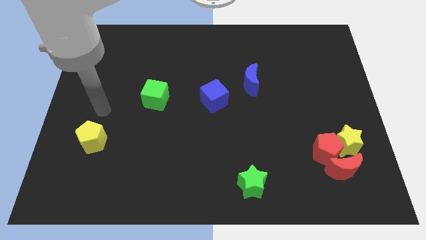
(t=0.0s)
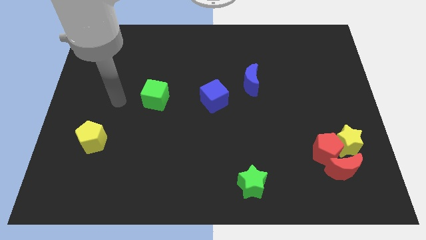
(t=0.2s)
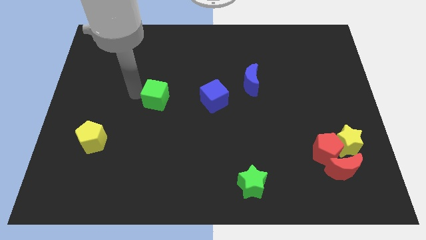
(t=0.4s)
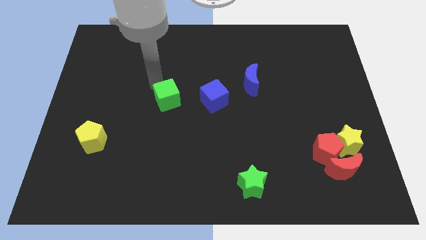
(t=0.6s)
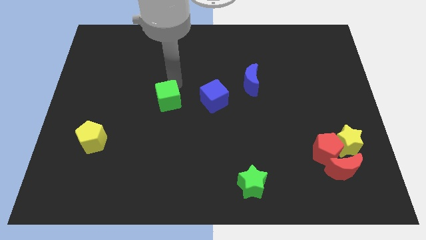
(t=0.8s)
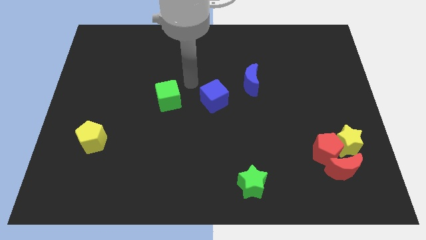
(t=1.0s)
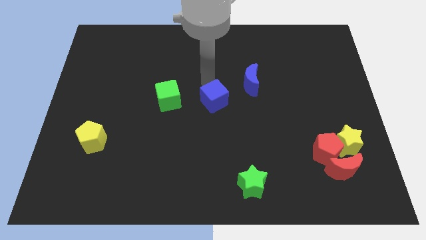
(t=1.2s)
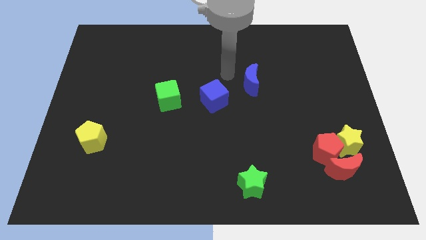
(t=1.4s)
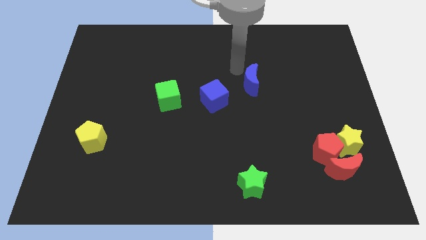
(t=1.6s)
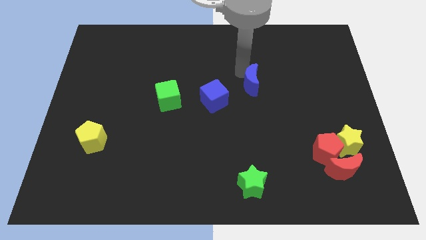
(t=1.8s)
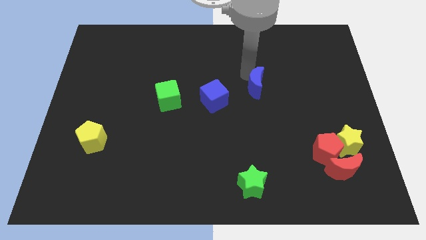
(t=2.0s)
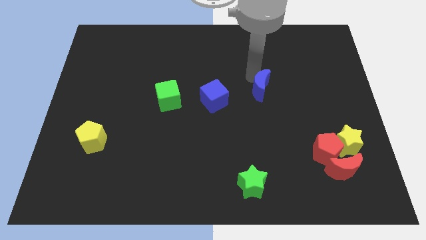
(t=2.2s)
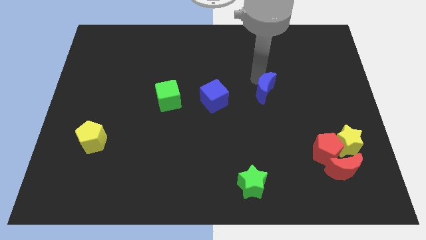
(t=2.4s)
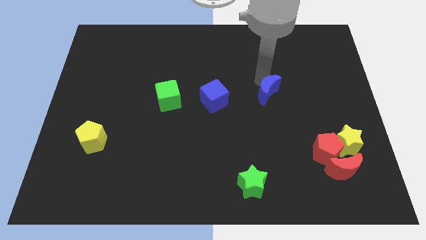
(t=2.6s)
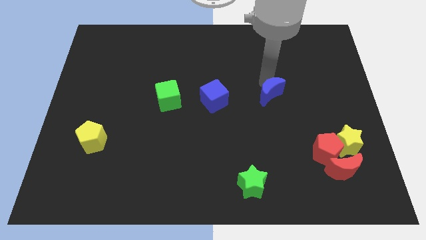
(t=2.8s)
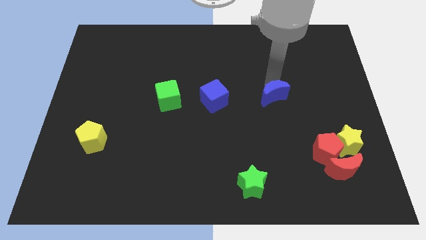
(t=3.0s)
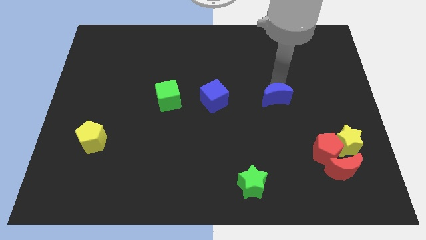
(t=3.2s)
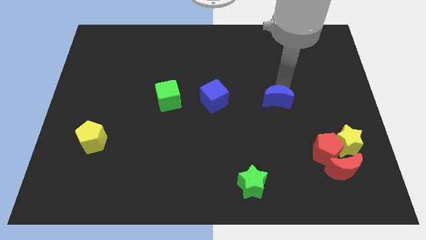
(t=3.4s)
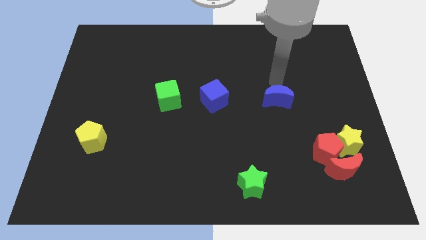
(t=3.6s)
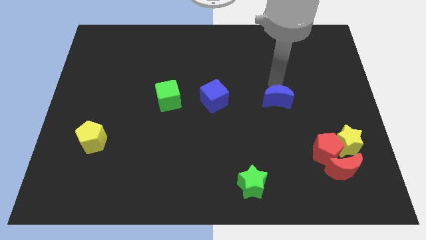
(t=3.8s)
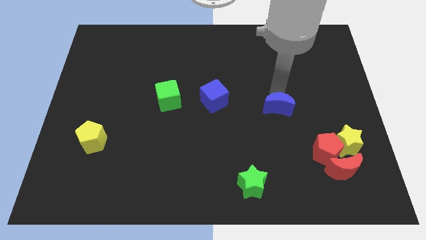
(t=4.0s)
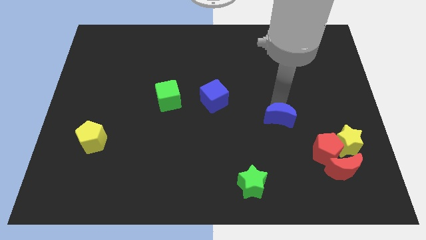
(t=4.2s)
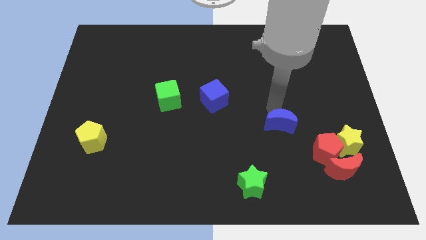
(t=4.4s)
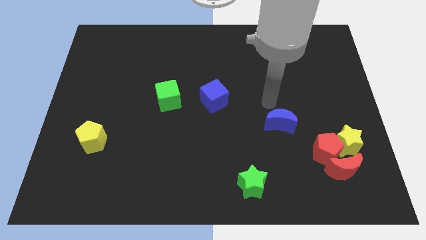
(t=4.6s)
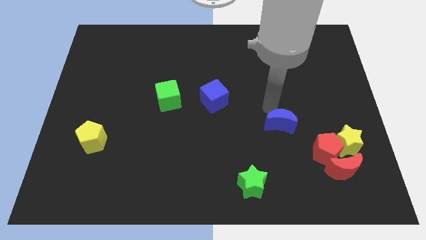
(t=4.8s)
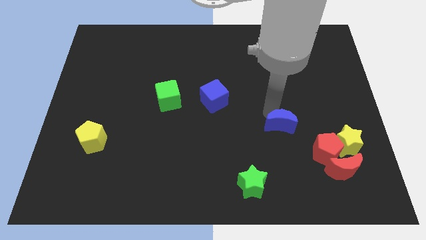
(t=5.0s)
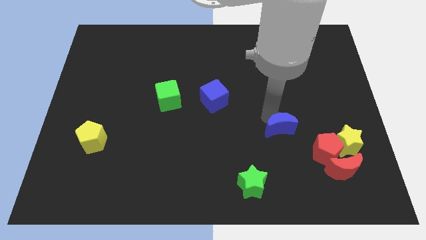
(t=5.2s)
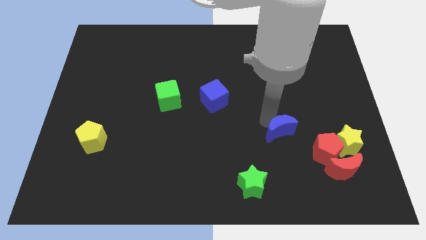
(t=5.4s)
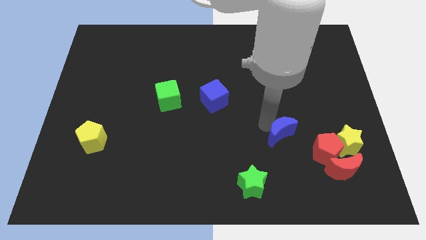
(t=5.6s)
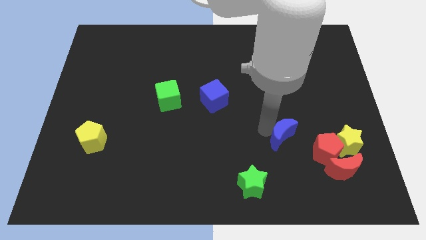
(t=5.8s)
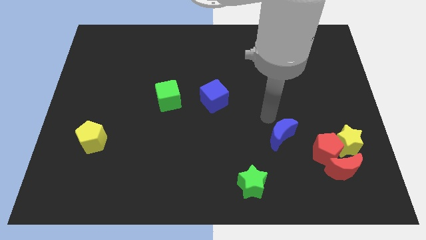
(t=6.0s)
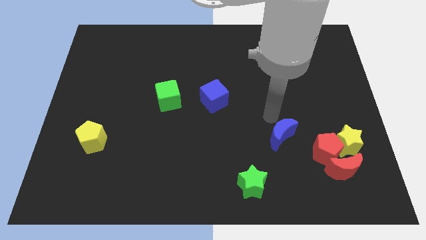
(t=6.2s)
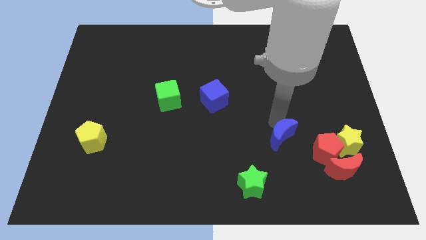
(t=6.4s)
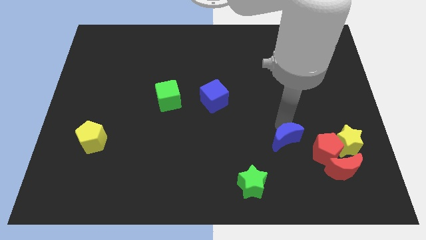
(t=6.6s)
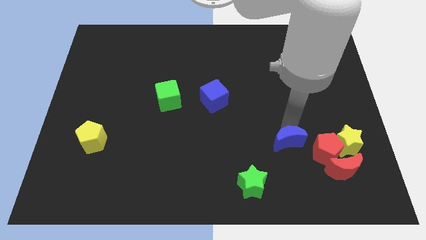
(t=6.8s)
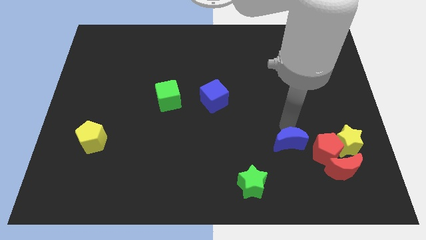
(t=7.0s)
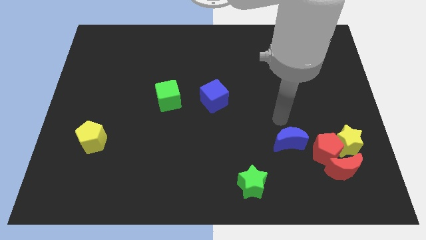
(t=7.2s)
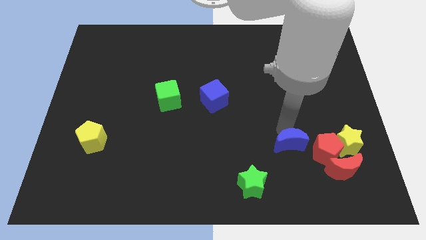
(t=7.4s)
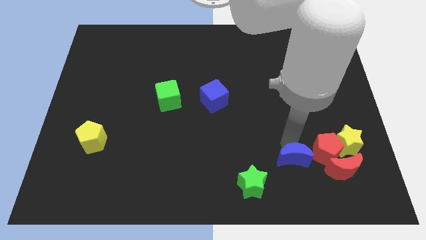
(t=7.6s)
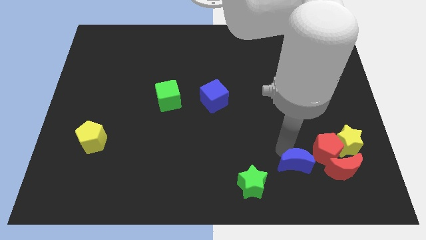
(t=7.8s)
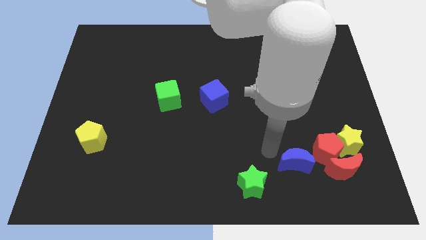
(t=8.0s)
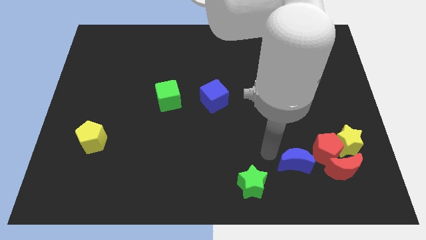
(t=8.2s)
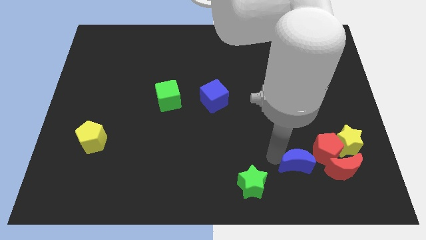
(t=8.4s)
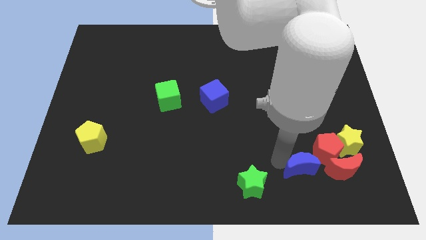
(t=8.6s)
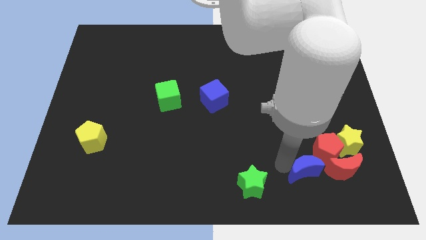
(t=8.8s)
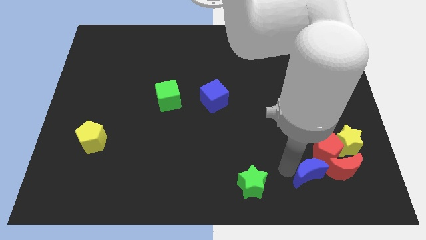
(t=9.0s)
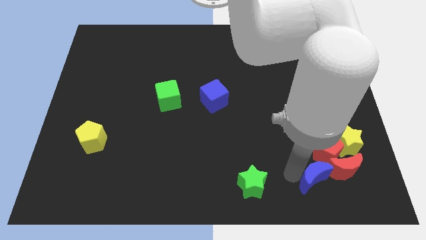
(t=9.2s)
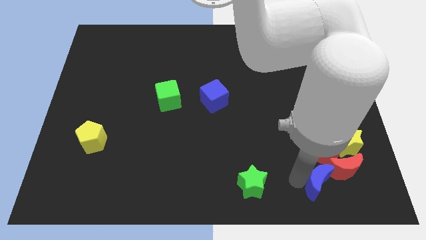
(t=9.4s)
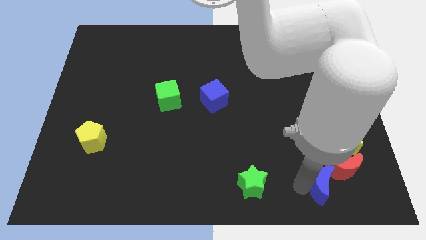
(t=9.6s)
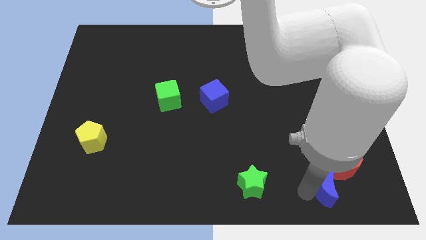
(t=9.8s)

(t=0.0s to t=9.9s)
slide the blue moon close to the red moon

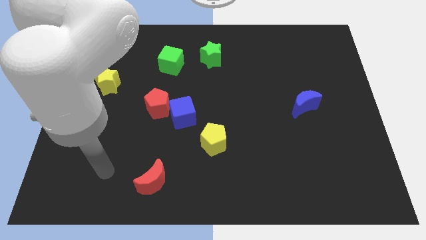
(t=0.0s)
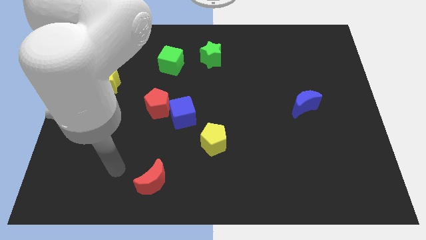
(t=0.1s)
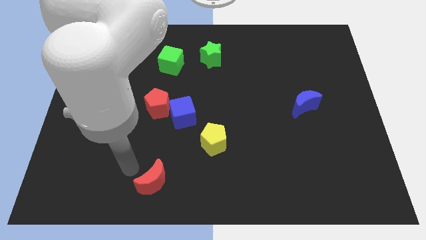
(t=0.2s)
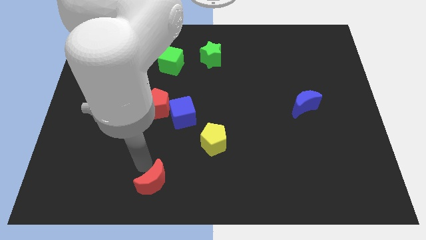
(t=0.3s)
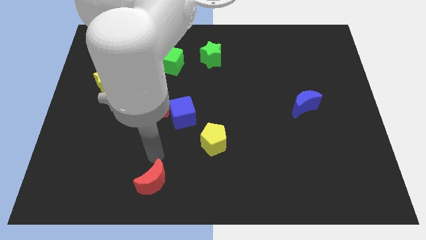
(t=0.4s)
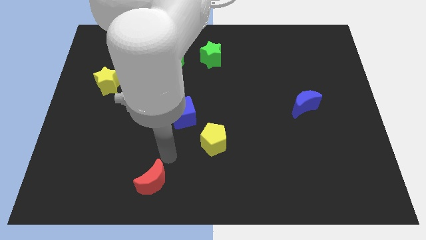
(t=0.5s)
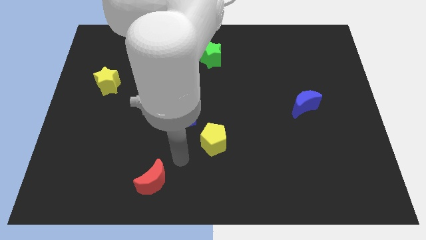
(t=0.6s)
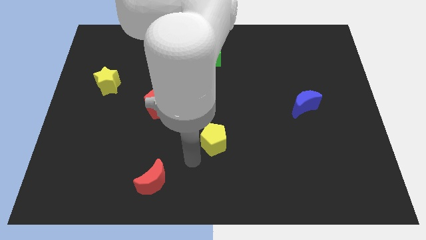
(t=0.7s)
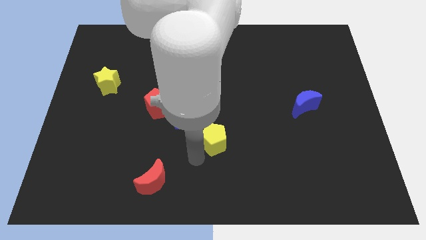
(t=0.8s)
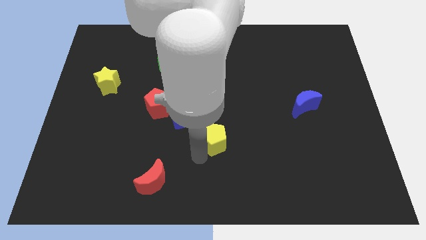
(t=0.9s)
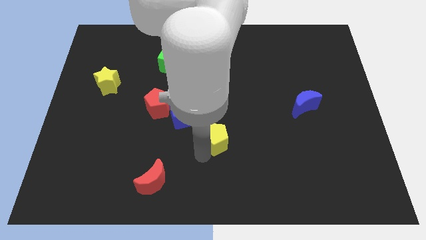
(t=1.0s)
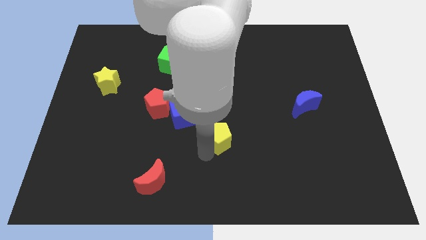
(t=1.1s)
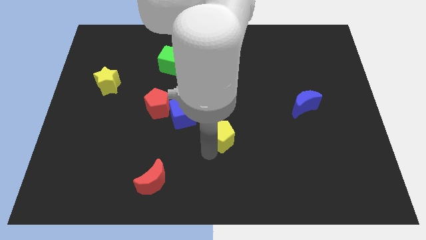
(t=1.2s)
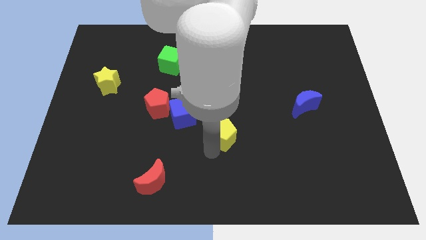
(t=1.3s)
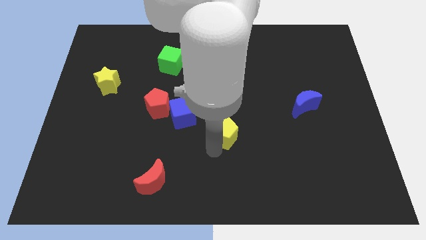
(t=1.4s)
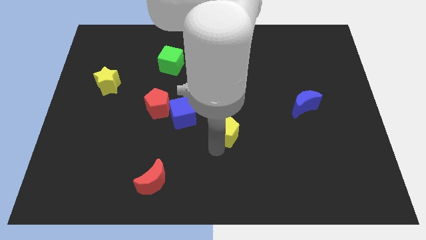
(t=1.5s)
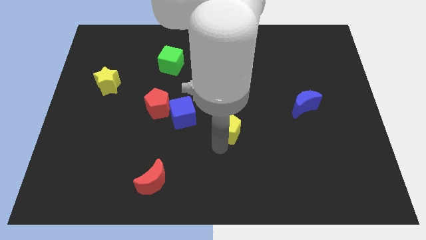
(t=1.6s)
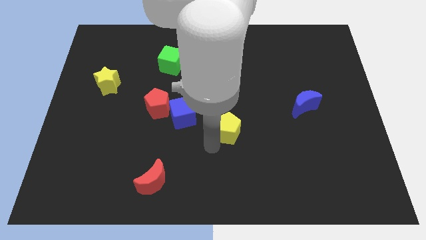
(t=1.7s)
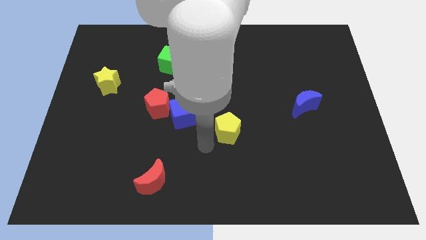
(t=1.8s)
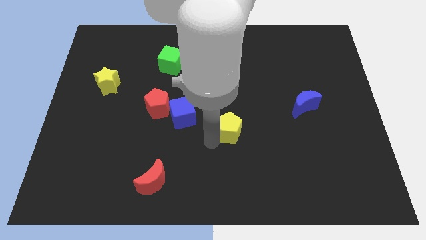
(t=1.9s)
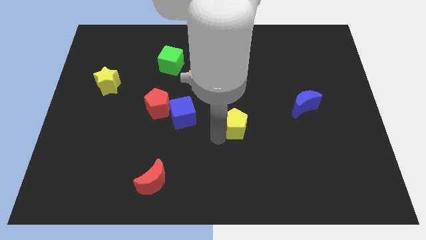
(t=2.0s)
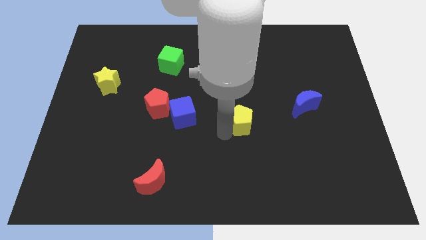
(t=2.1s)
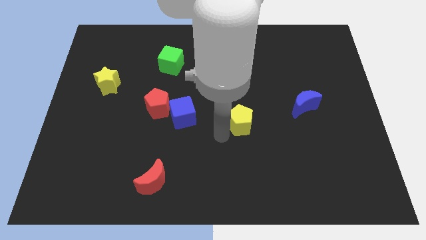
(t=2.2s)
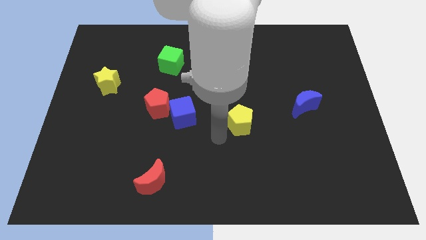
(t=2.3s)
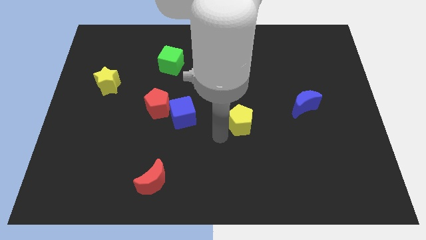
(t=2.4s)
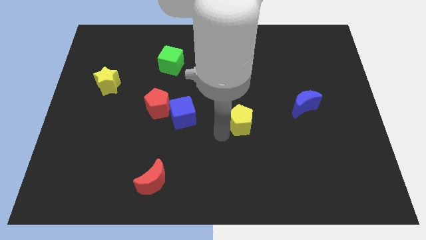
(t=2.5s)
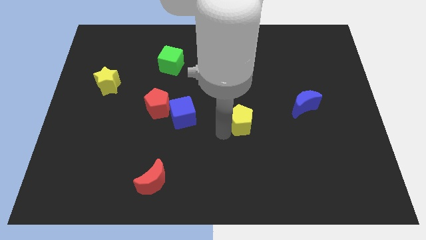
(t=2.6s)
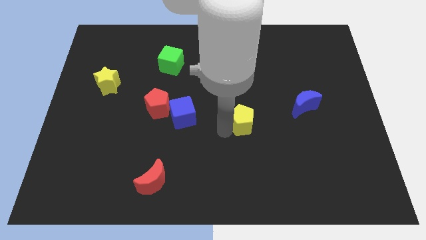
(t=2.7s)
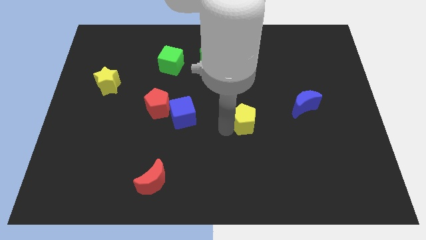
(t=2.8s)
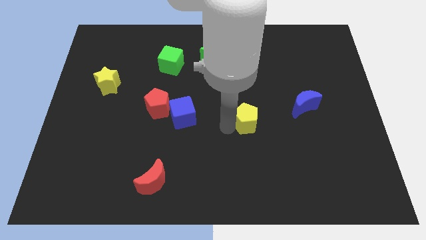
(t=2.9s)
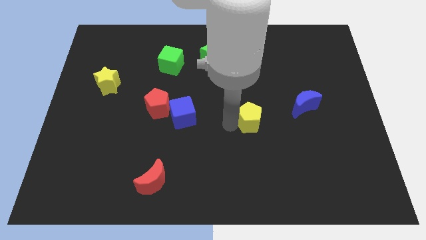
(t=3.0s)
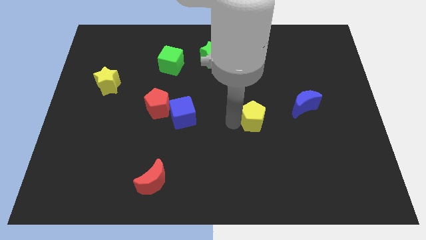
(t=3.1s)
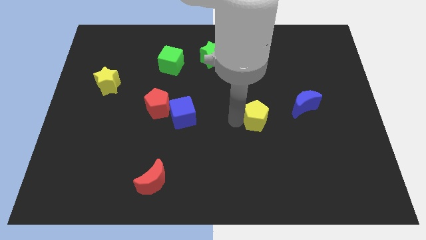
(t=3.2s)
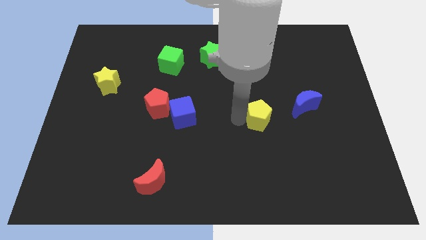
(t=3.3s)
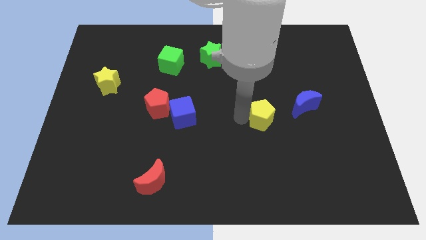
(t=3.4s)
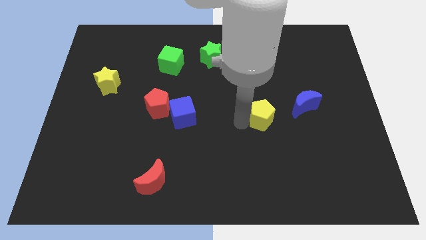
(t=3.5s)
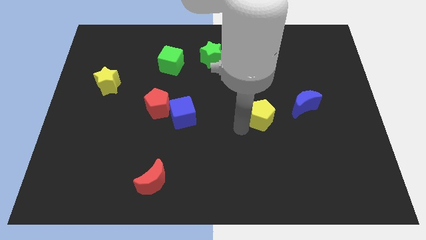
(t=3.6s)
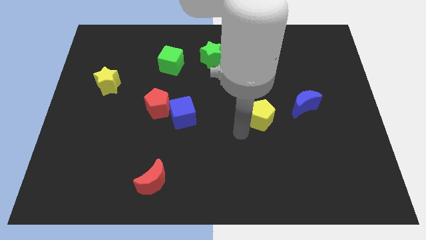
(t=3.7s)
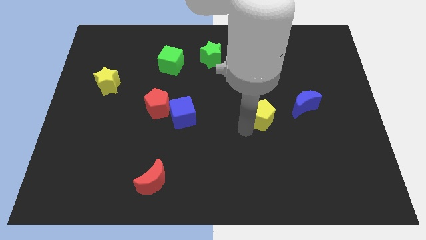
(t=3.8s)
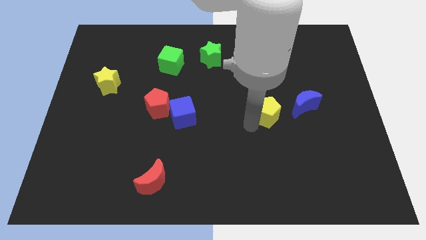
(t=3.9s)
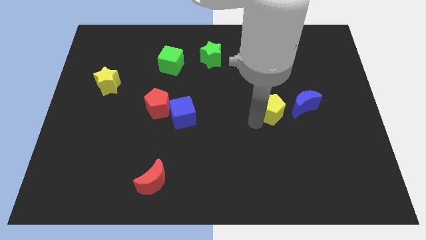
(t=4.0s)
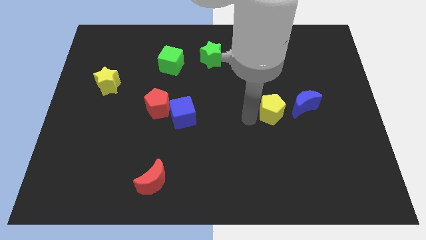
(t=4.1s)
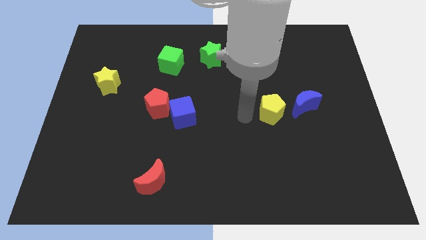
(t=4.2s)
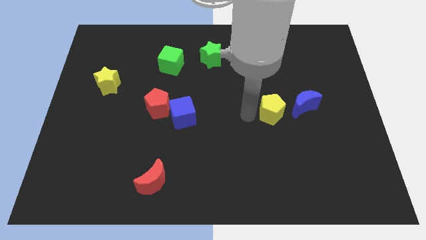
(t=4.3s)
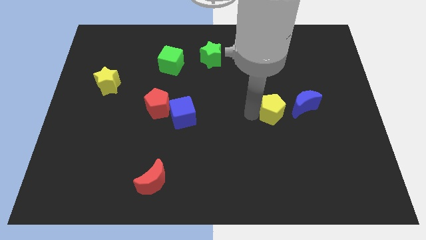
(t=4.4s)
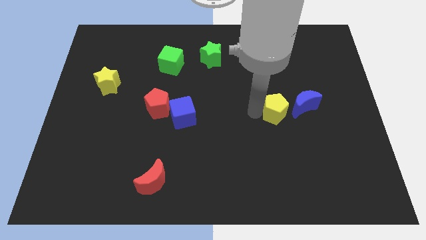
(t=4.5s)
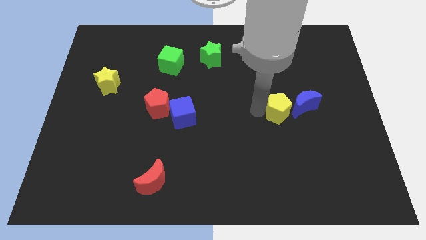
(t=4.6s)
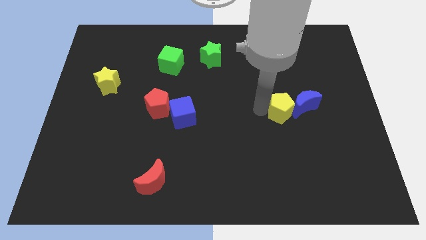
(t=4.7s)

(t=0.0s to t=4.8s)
put the yellow pentagon next to the blue moon
